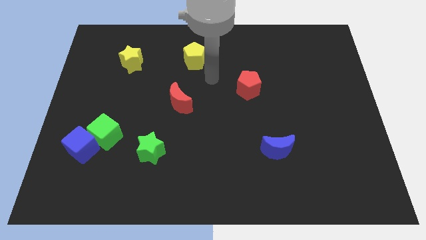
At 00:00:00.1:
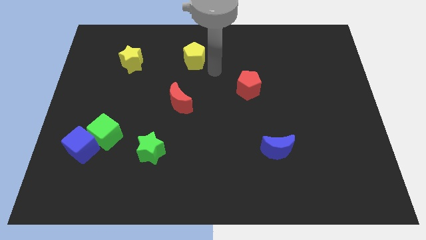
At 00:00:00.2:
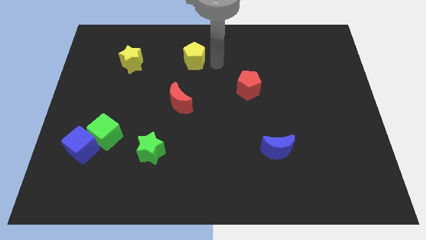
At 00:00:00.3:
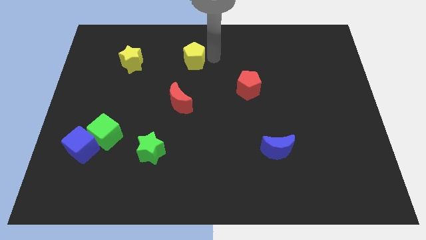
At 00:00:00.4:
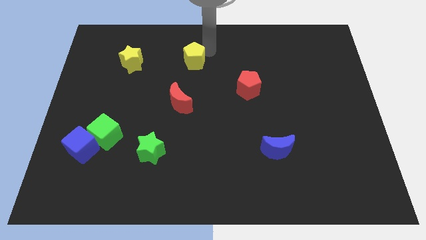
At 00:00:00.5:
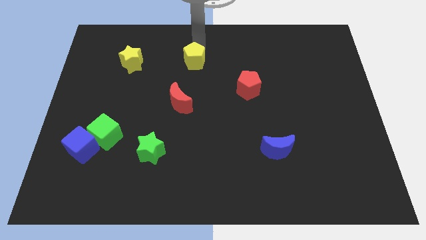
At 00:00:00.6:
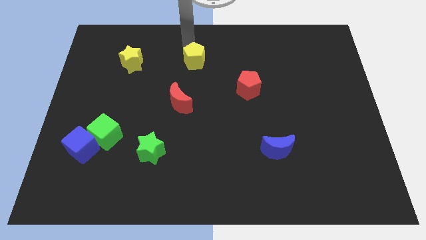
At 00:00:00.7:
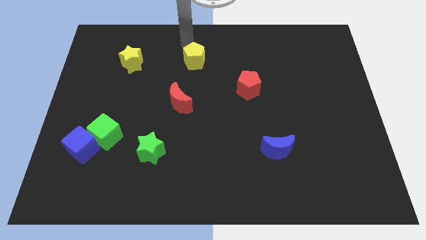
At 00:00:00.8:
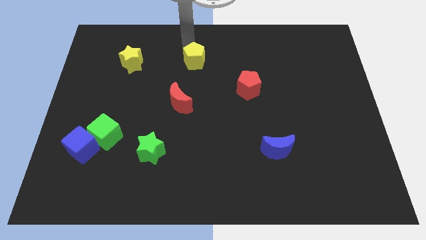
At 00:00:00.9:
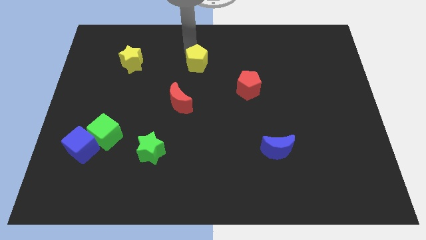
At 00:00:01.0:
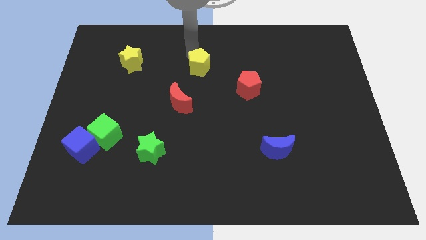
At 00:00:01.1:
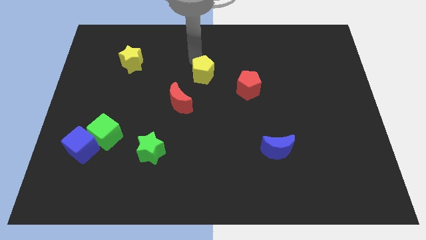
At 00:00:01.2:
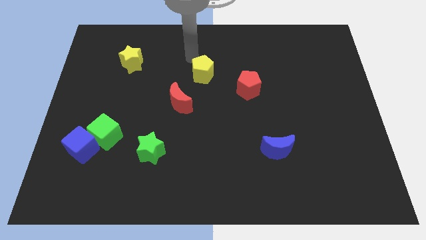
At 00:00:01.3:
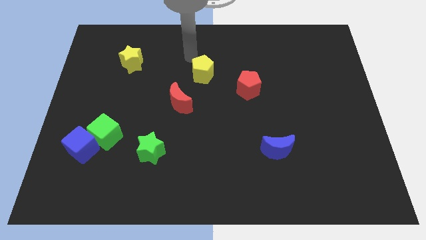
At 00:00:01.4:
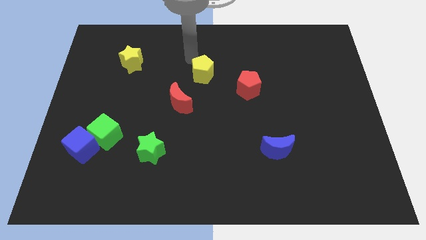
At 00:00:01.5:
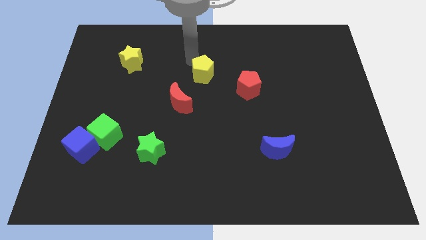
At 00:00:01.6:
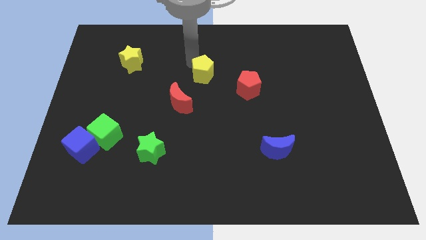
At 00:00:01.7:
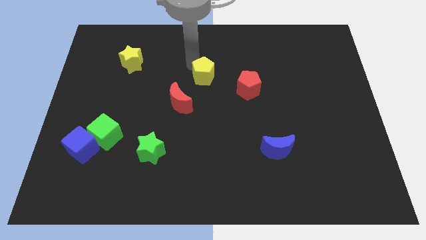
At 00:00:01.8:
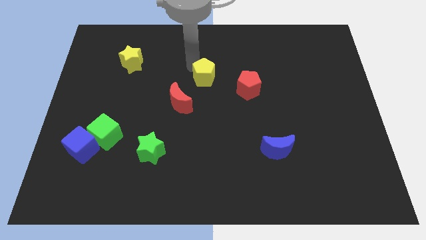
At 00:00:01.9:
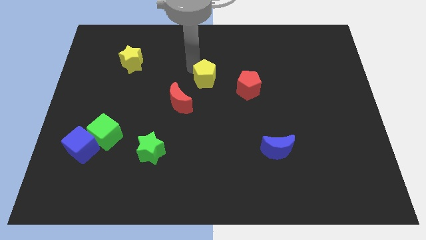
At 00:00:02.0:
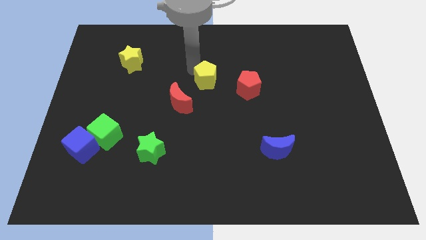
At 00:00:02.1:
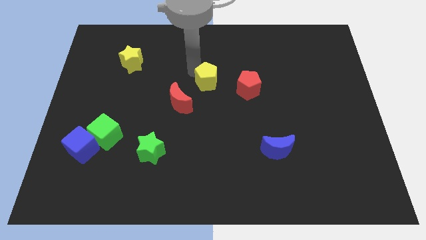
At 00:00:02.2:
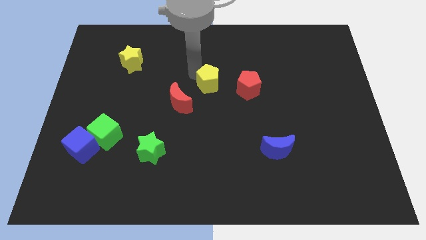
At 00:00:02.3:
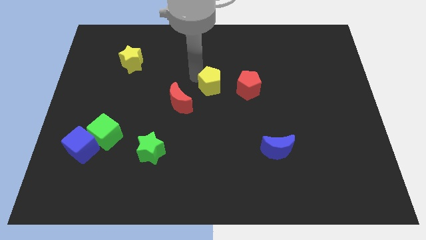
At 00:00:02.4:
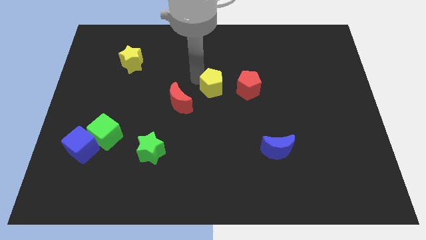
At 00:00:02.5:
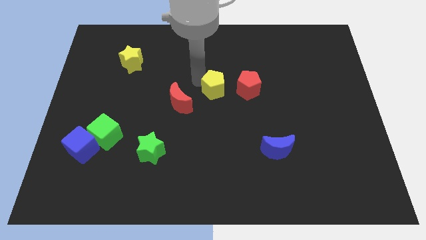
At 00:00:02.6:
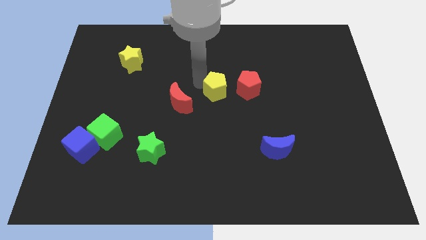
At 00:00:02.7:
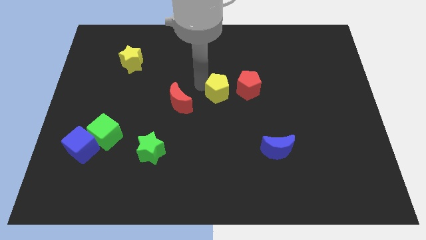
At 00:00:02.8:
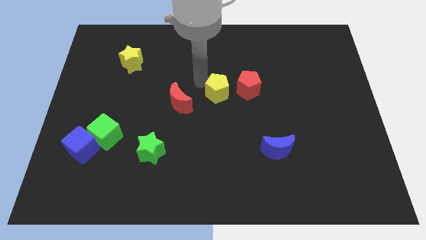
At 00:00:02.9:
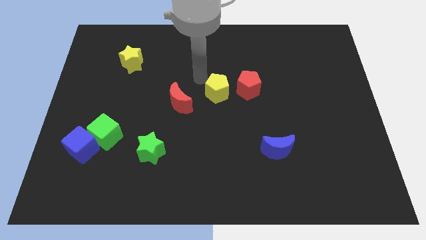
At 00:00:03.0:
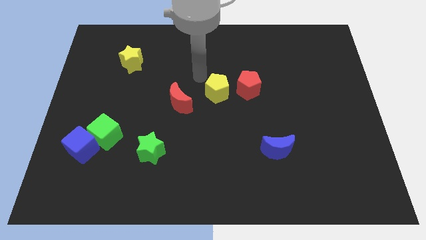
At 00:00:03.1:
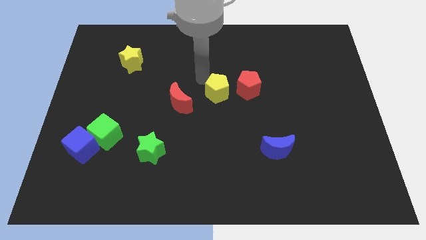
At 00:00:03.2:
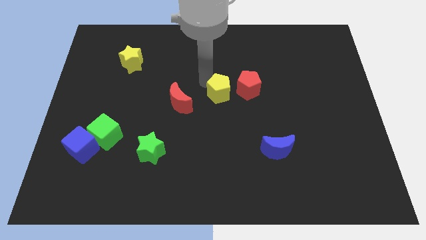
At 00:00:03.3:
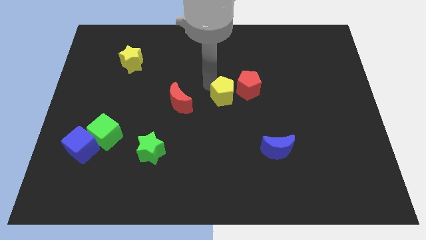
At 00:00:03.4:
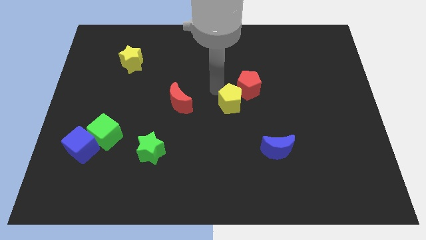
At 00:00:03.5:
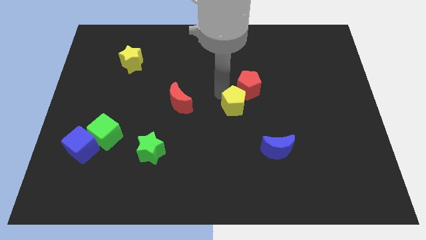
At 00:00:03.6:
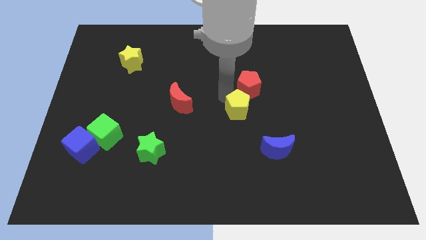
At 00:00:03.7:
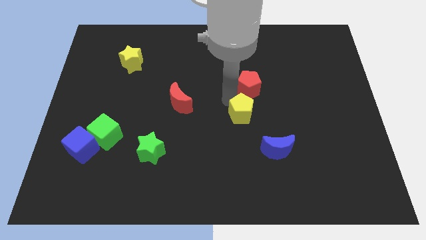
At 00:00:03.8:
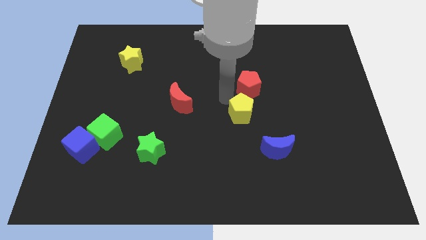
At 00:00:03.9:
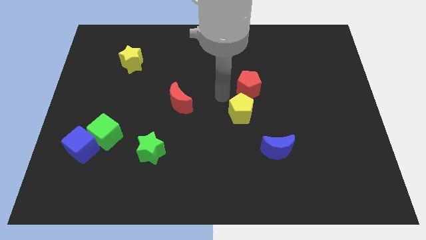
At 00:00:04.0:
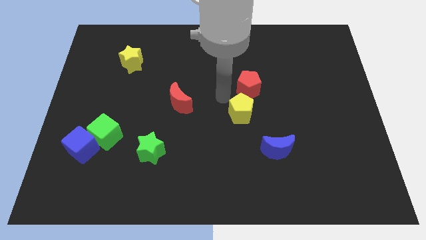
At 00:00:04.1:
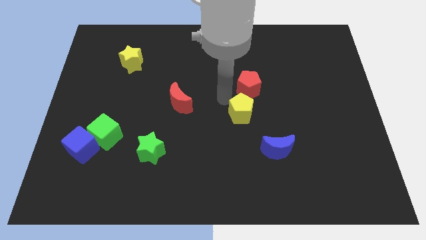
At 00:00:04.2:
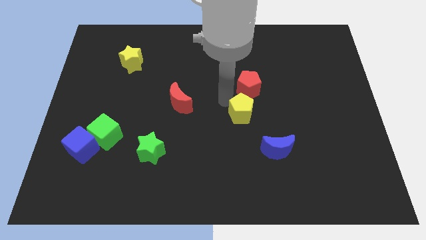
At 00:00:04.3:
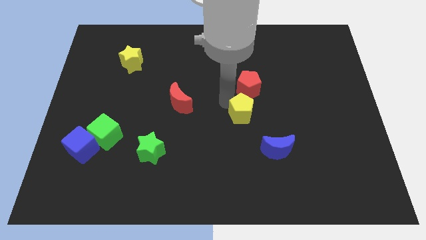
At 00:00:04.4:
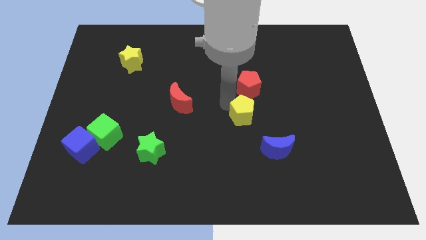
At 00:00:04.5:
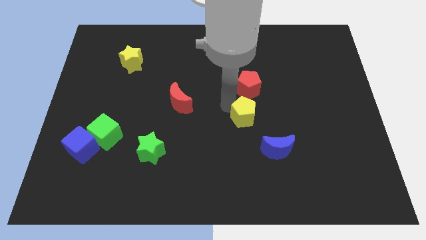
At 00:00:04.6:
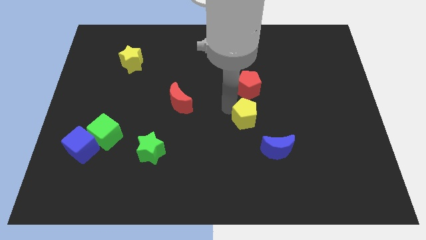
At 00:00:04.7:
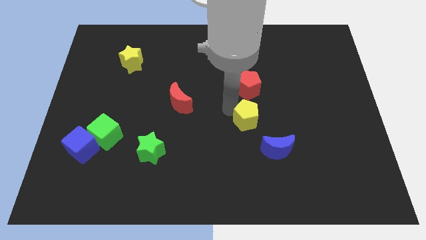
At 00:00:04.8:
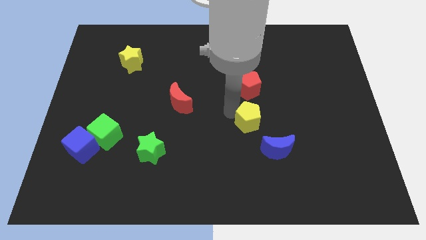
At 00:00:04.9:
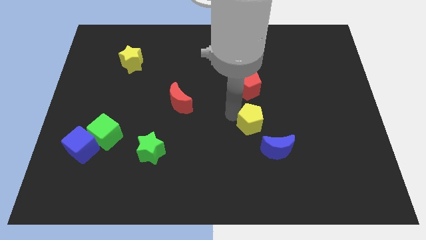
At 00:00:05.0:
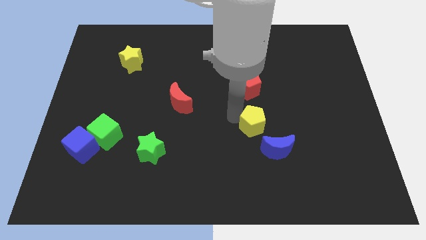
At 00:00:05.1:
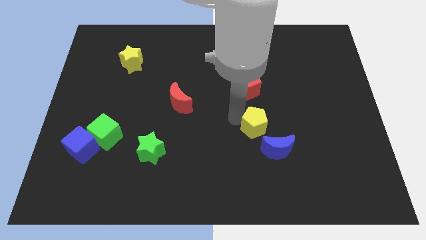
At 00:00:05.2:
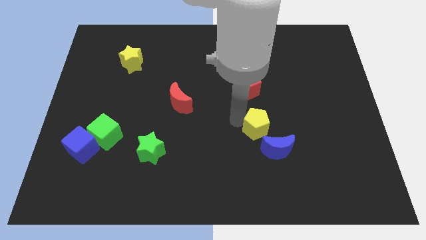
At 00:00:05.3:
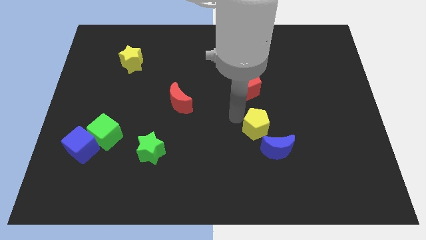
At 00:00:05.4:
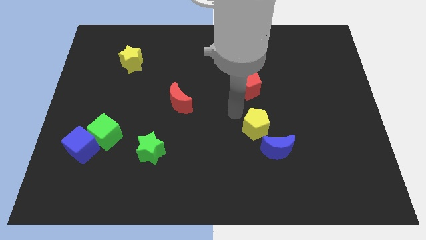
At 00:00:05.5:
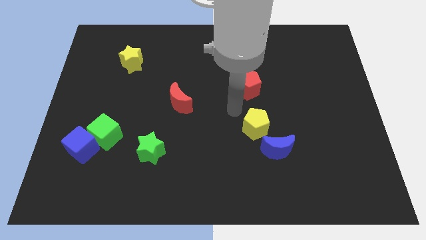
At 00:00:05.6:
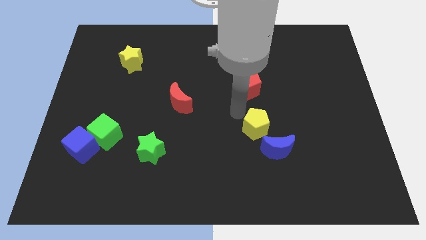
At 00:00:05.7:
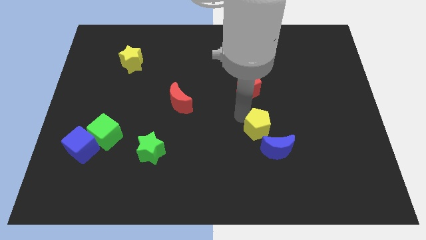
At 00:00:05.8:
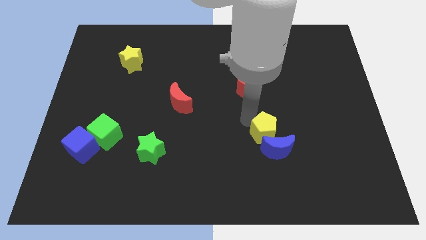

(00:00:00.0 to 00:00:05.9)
slide the yellow pentagon next to the blue moon

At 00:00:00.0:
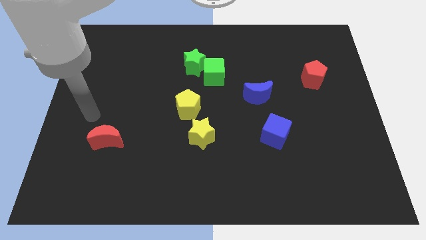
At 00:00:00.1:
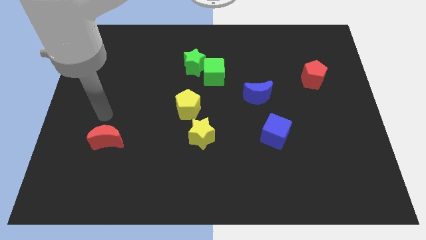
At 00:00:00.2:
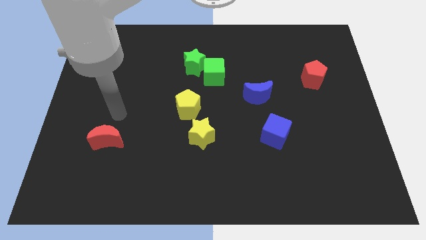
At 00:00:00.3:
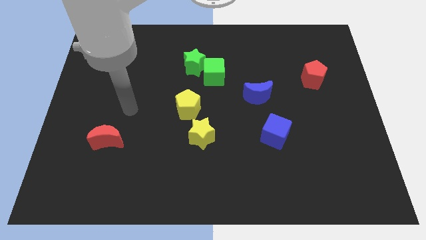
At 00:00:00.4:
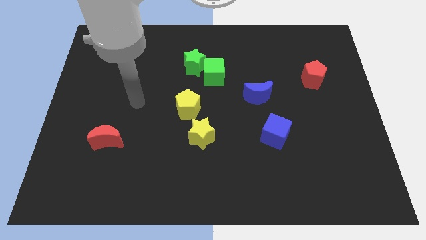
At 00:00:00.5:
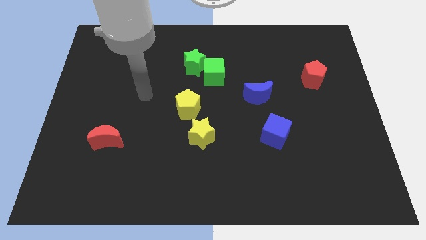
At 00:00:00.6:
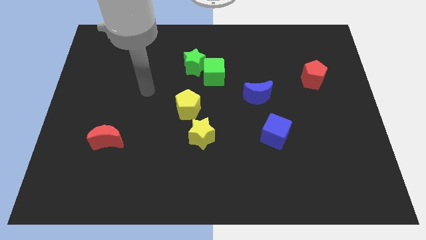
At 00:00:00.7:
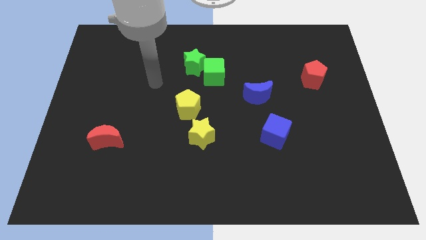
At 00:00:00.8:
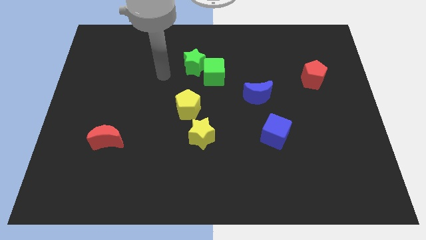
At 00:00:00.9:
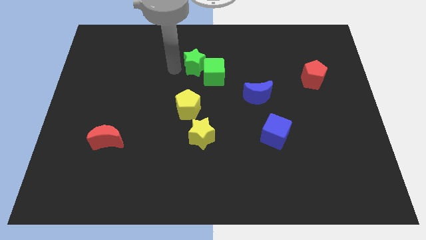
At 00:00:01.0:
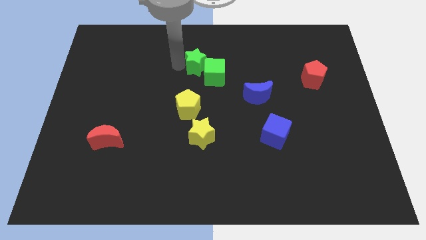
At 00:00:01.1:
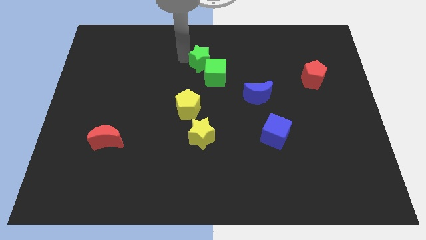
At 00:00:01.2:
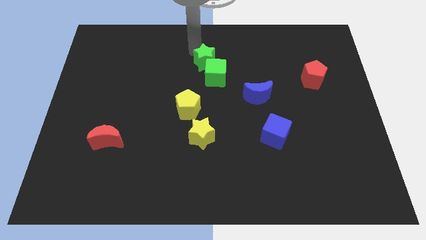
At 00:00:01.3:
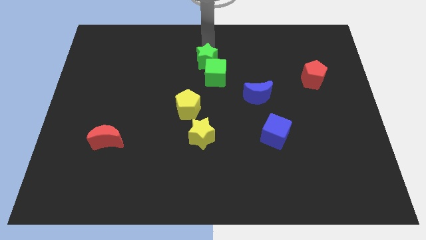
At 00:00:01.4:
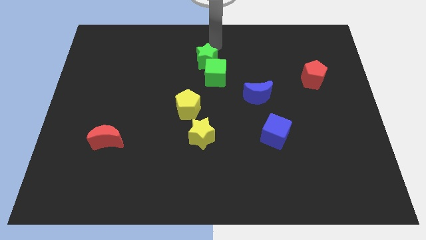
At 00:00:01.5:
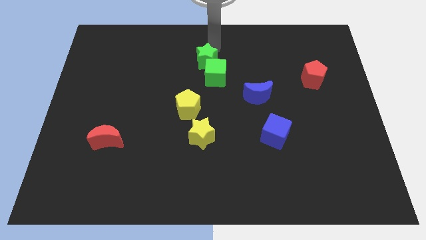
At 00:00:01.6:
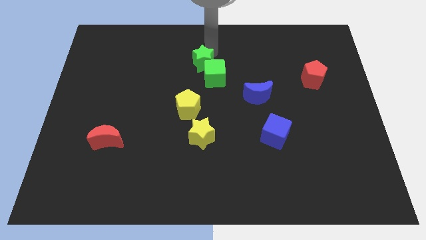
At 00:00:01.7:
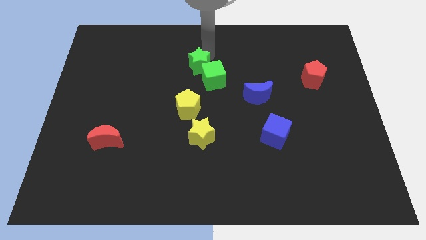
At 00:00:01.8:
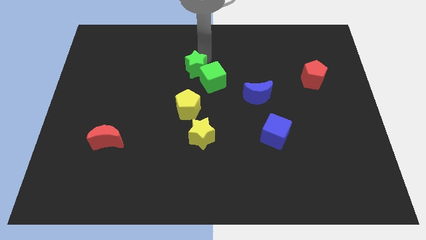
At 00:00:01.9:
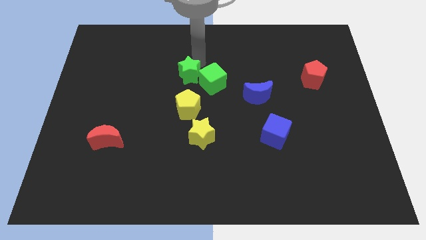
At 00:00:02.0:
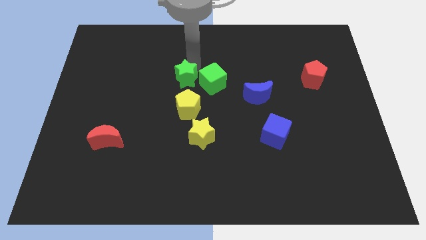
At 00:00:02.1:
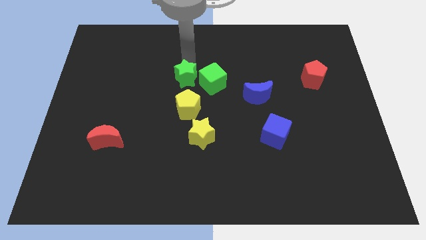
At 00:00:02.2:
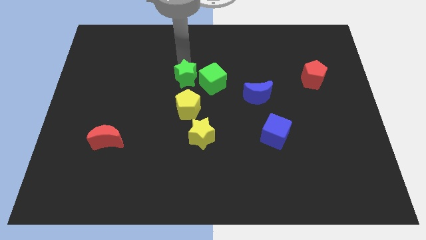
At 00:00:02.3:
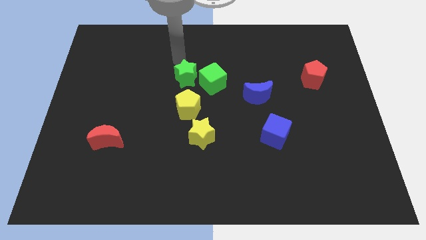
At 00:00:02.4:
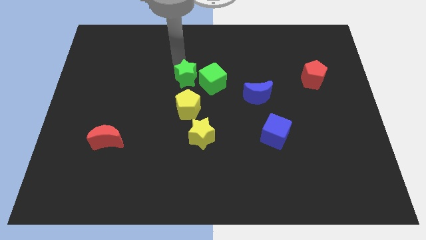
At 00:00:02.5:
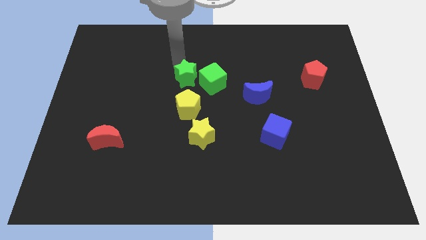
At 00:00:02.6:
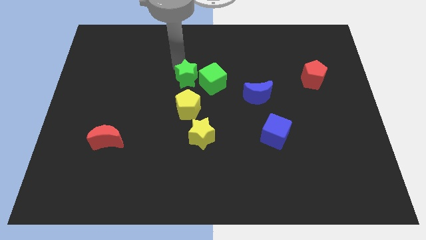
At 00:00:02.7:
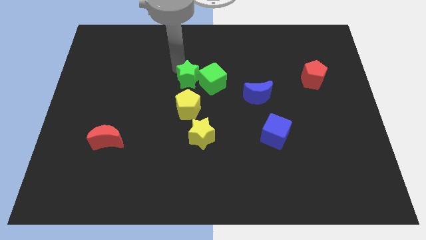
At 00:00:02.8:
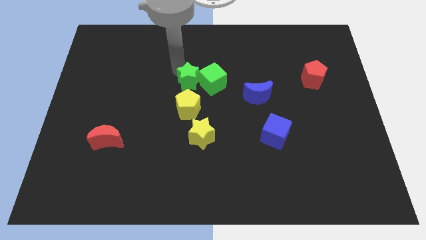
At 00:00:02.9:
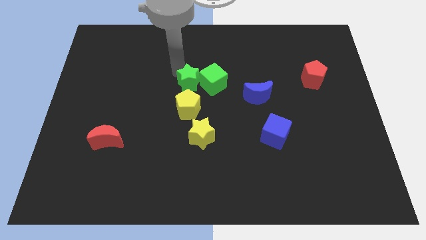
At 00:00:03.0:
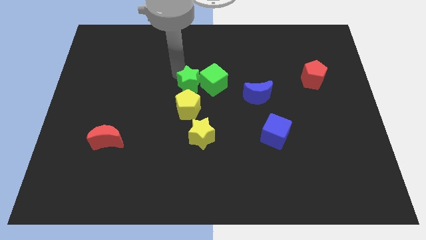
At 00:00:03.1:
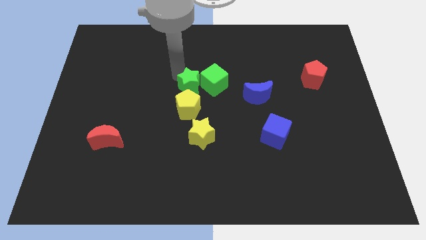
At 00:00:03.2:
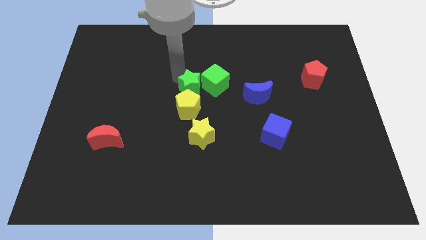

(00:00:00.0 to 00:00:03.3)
put the green star next to the yellow pentagon
